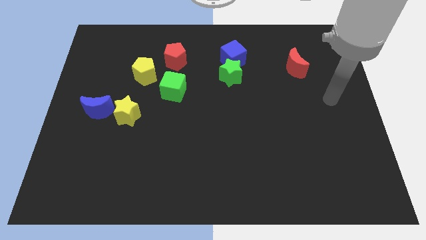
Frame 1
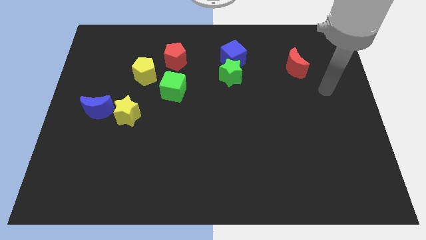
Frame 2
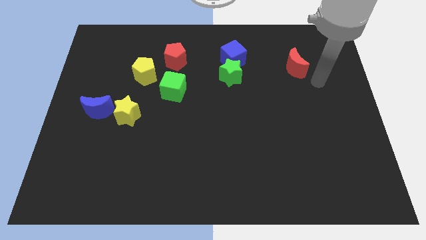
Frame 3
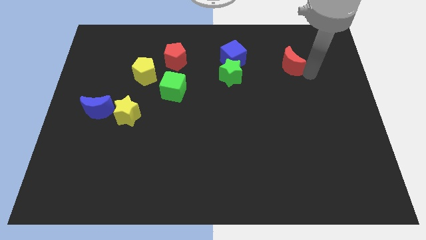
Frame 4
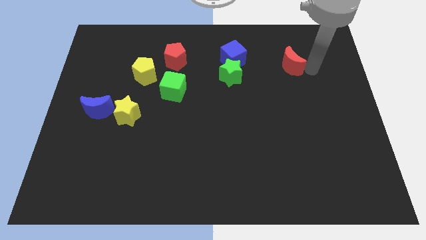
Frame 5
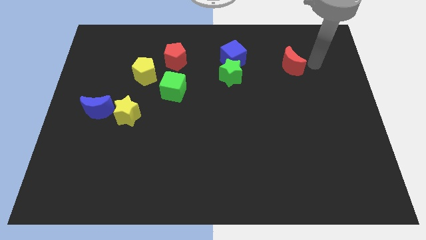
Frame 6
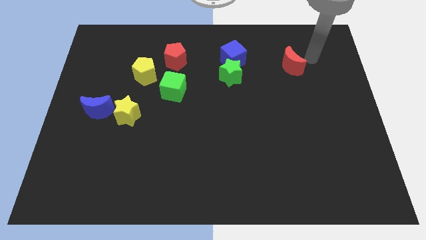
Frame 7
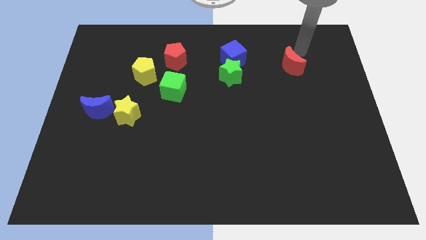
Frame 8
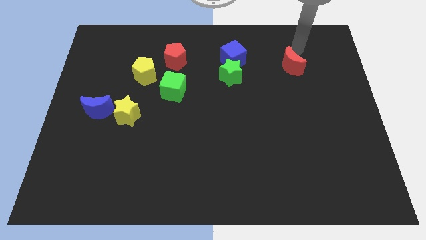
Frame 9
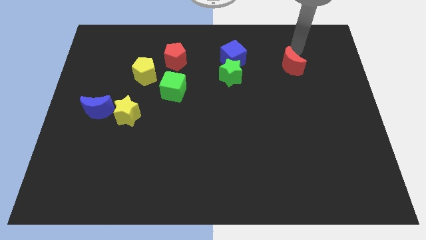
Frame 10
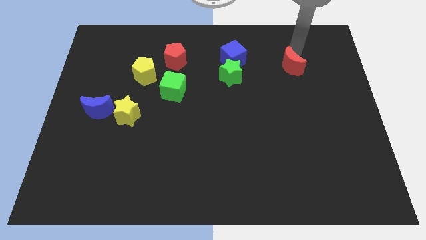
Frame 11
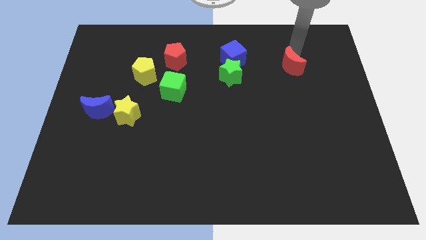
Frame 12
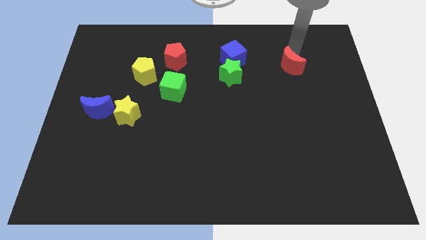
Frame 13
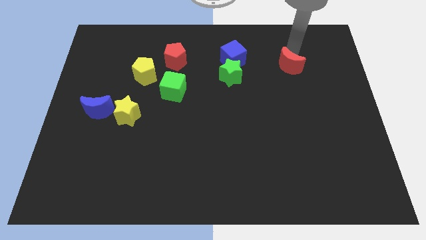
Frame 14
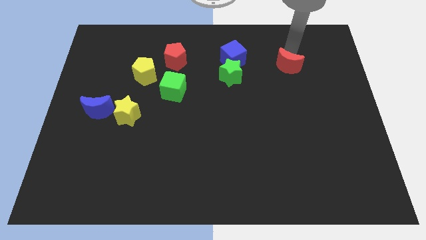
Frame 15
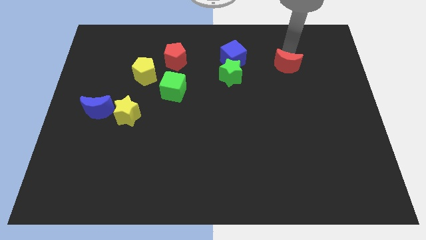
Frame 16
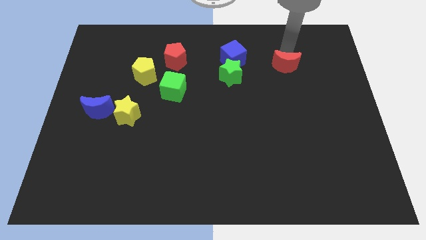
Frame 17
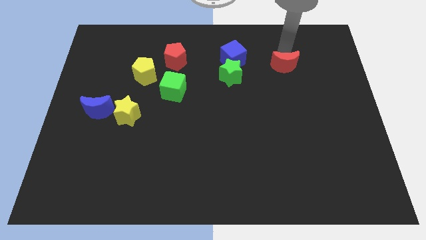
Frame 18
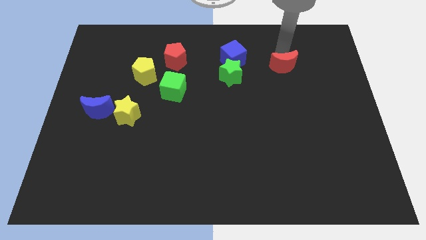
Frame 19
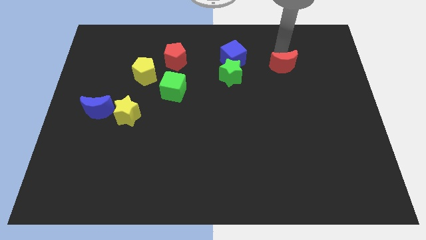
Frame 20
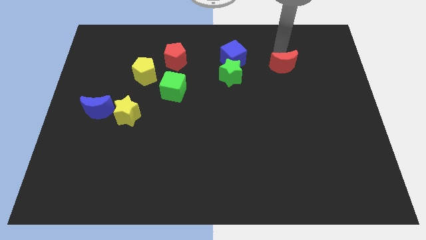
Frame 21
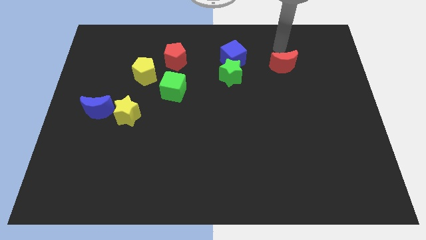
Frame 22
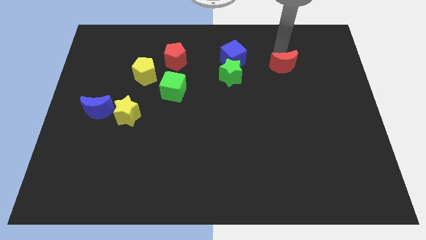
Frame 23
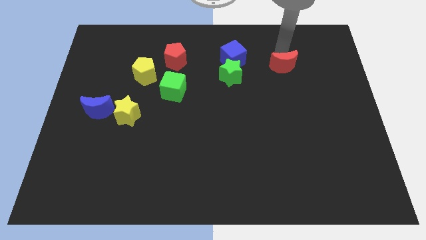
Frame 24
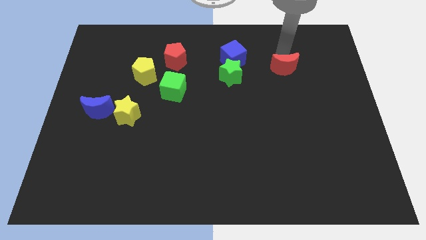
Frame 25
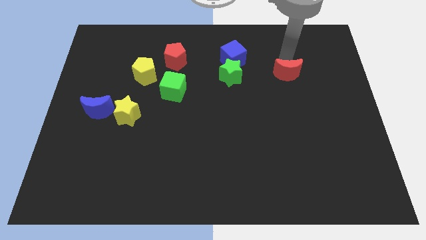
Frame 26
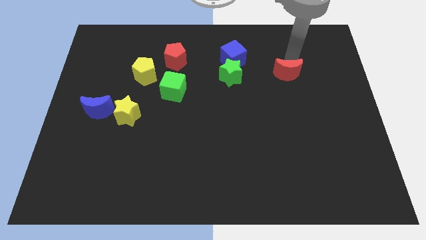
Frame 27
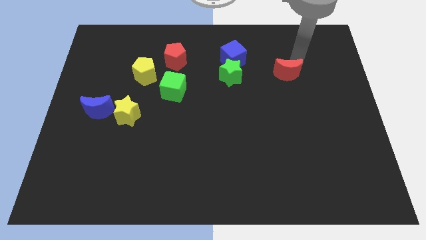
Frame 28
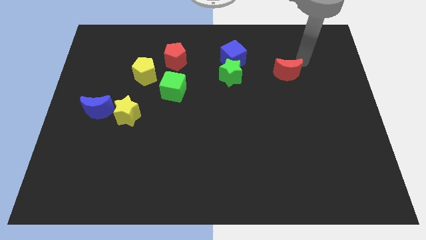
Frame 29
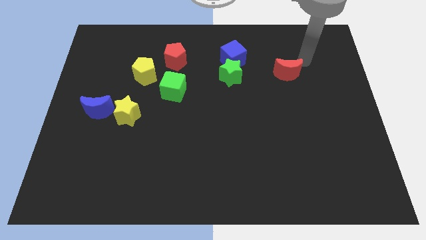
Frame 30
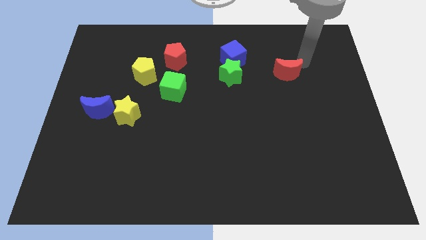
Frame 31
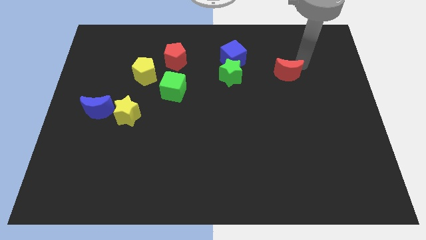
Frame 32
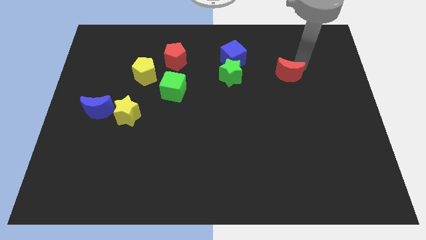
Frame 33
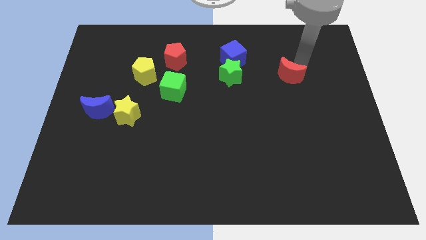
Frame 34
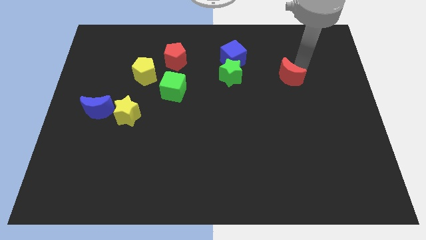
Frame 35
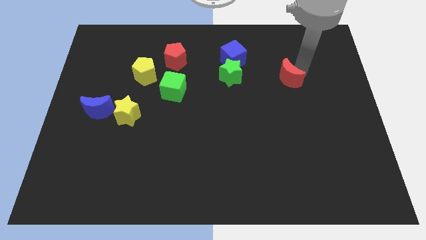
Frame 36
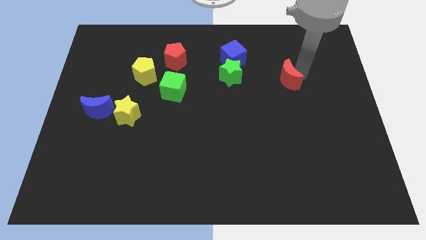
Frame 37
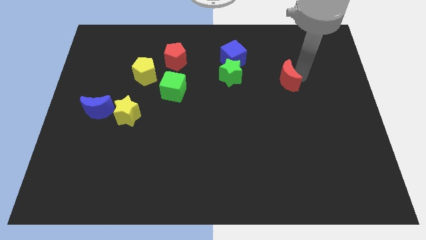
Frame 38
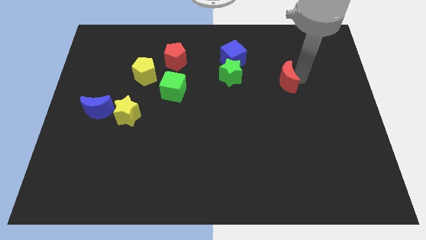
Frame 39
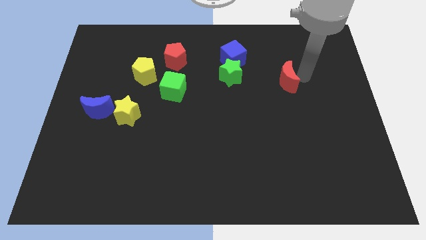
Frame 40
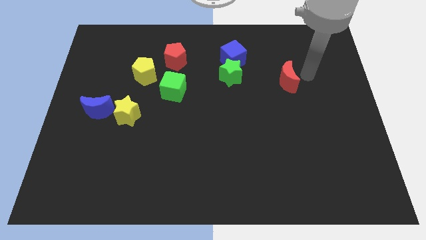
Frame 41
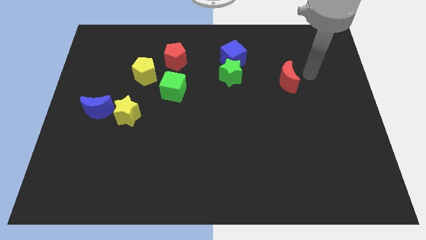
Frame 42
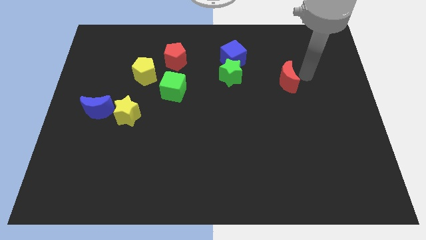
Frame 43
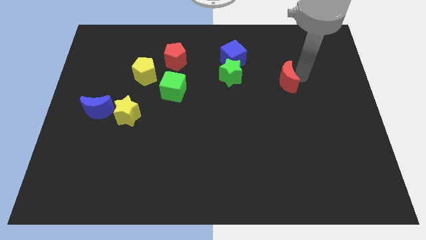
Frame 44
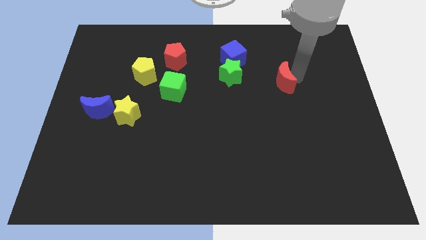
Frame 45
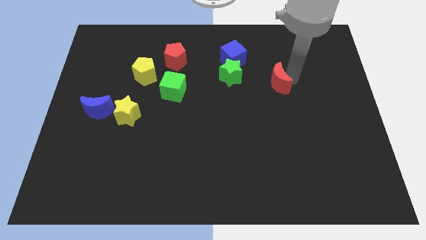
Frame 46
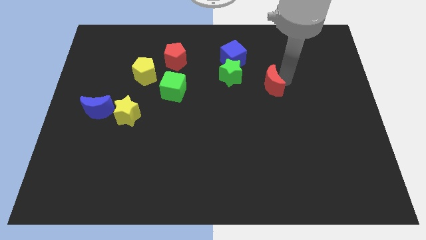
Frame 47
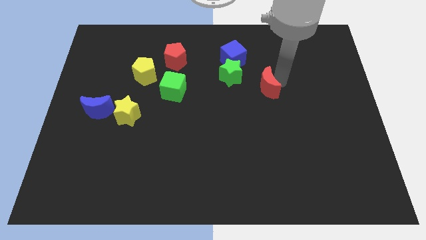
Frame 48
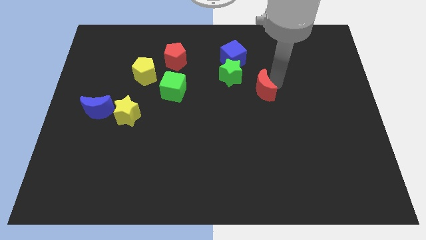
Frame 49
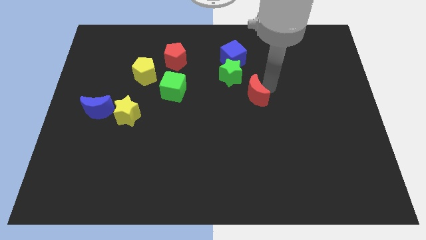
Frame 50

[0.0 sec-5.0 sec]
push the red moon slightly to the left

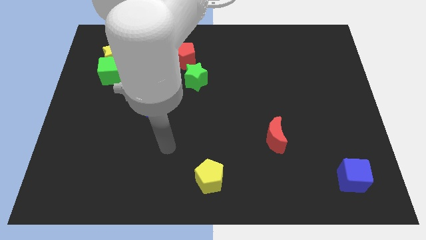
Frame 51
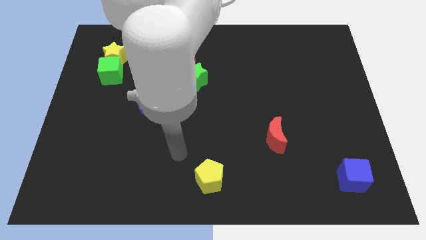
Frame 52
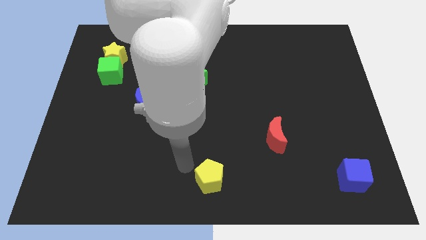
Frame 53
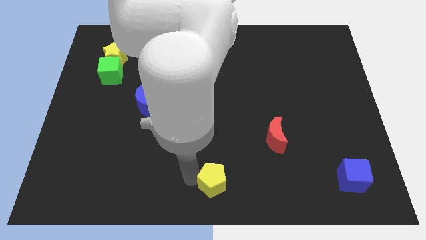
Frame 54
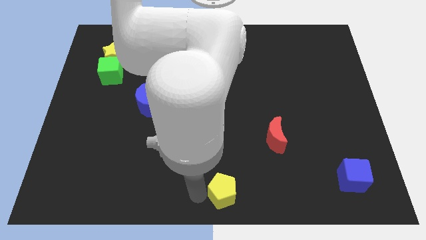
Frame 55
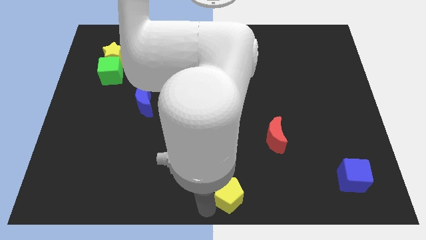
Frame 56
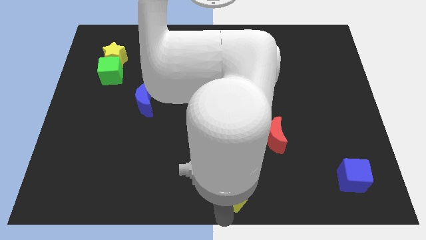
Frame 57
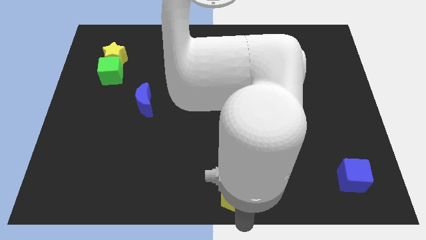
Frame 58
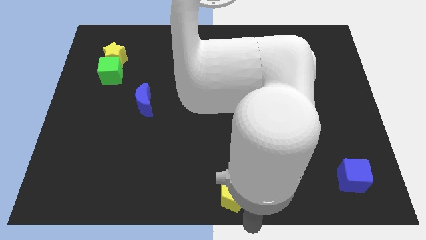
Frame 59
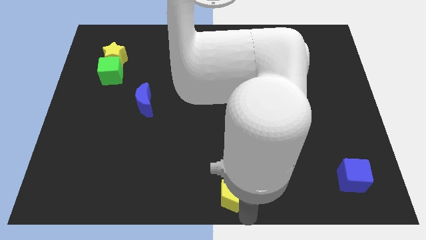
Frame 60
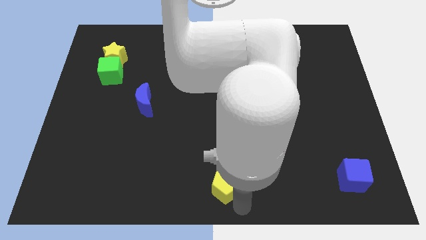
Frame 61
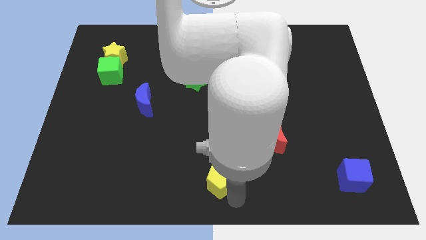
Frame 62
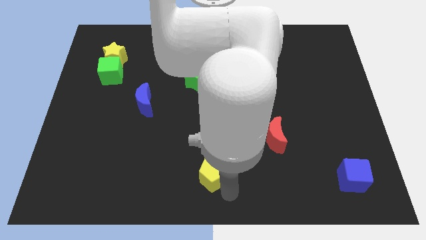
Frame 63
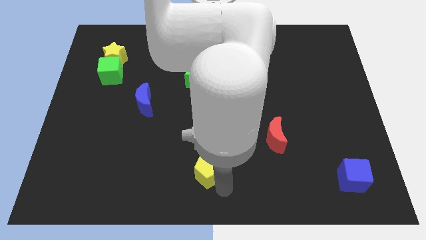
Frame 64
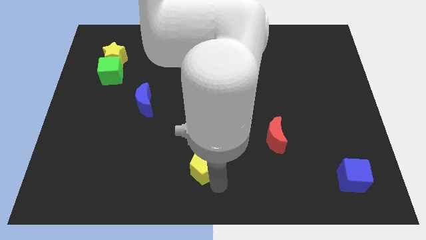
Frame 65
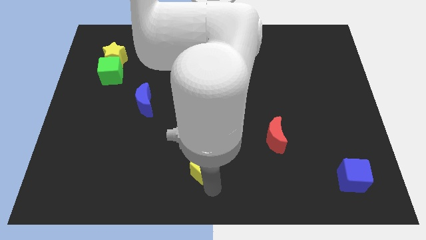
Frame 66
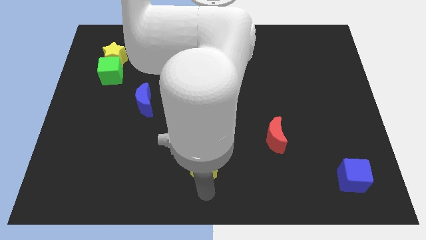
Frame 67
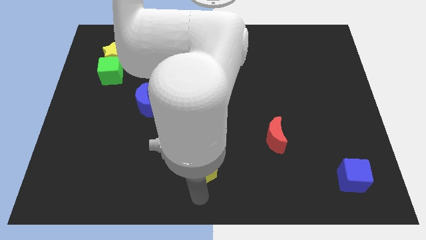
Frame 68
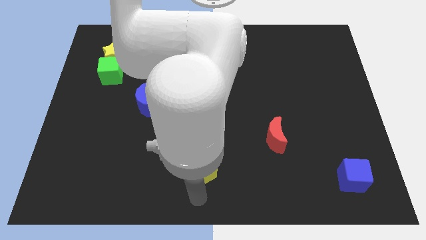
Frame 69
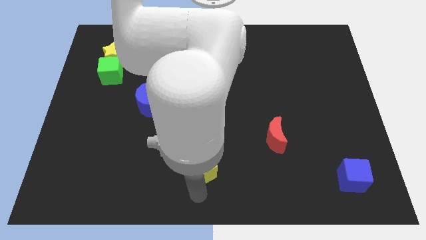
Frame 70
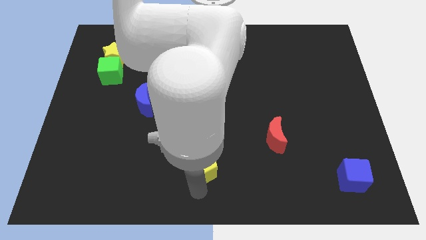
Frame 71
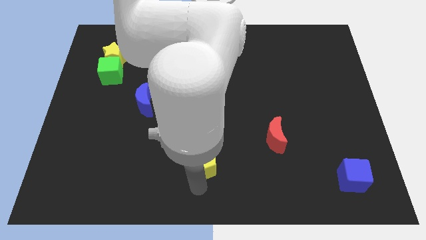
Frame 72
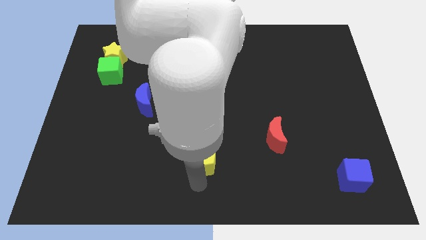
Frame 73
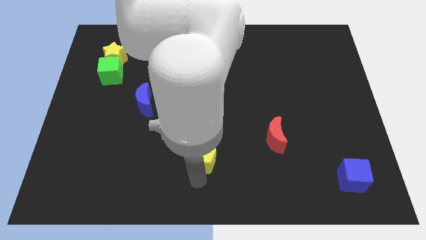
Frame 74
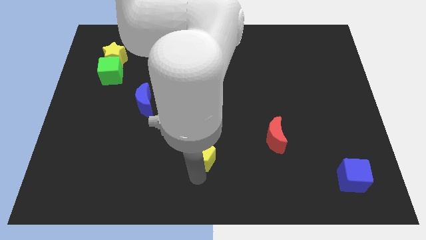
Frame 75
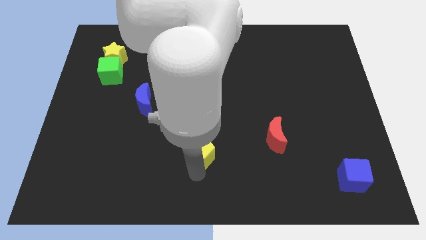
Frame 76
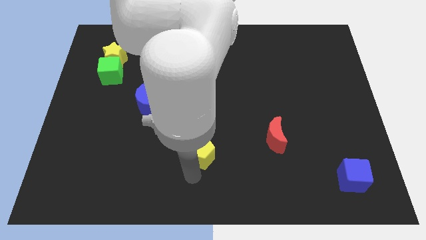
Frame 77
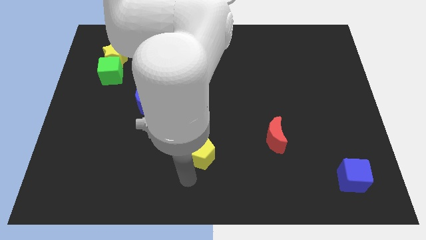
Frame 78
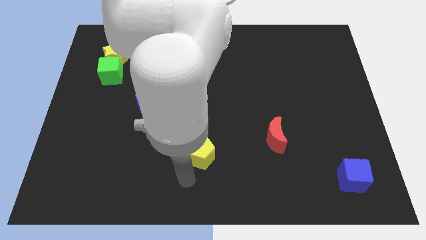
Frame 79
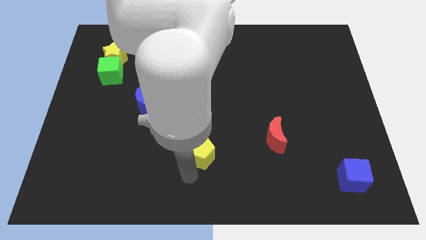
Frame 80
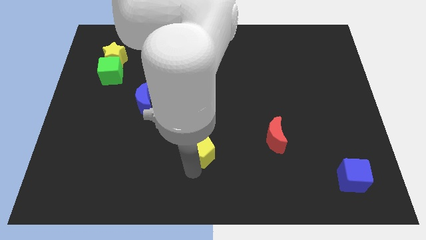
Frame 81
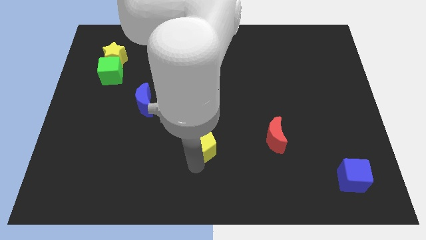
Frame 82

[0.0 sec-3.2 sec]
slightly slide the yellow pentagon upwards
